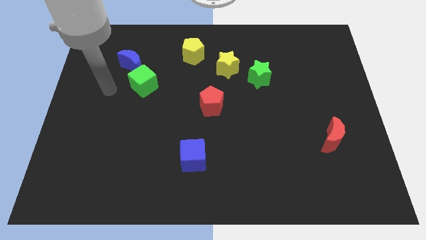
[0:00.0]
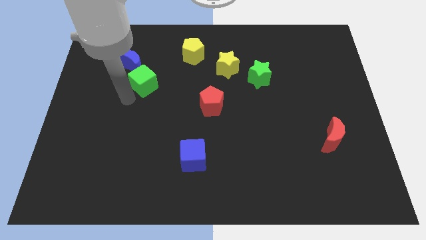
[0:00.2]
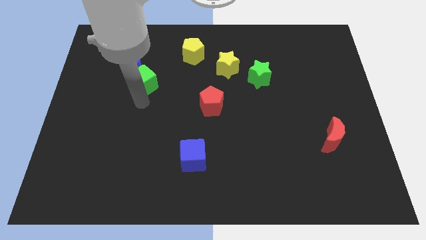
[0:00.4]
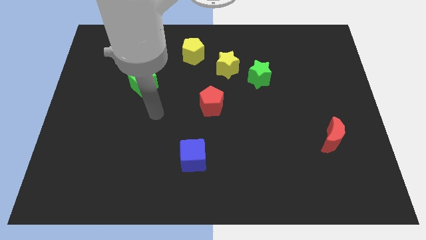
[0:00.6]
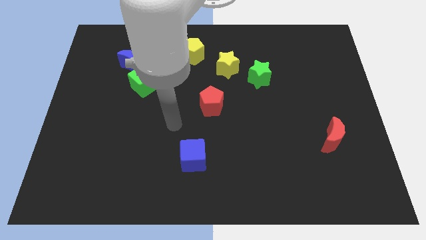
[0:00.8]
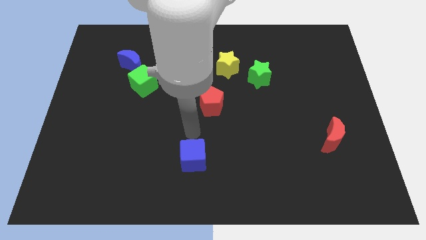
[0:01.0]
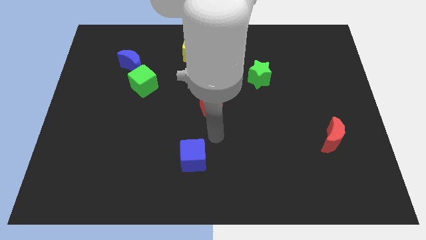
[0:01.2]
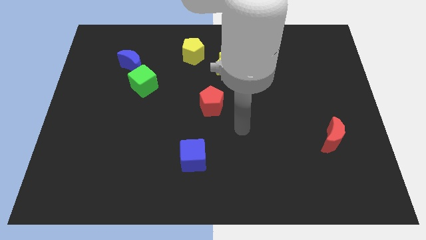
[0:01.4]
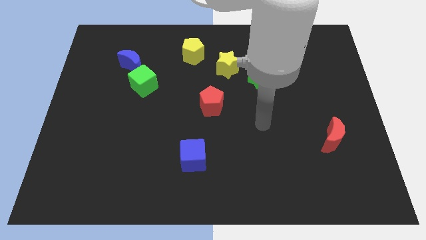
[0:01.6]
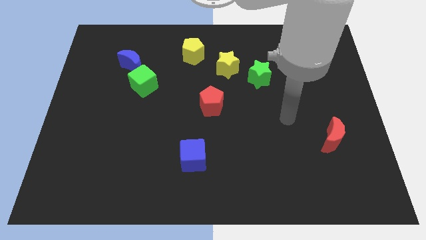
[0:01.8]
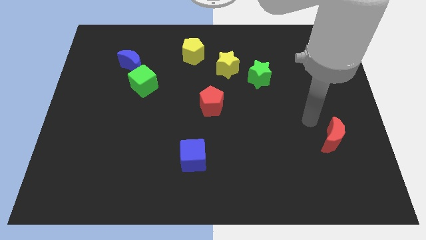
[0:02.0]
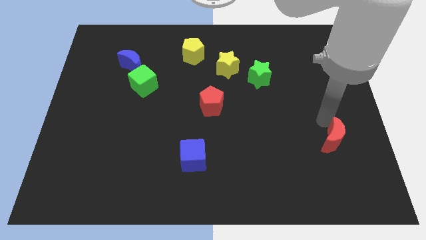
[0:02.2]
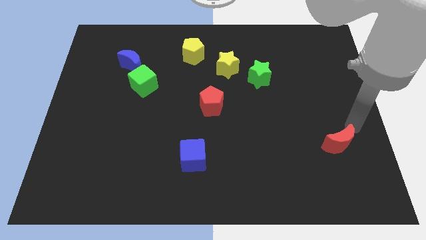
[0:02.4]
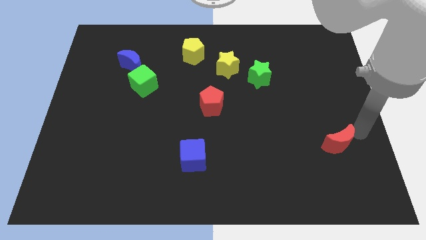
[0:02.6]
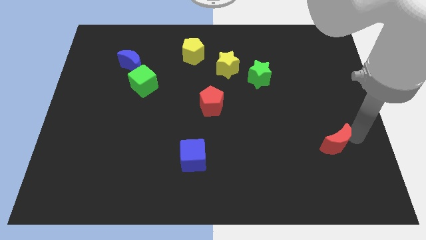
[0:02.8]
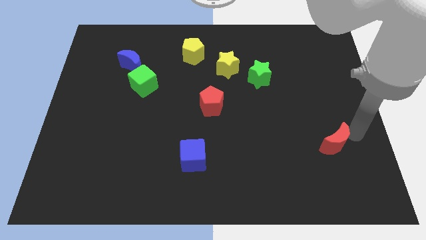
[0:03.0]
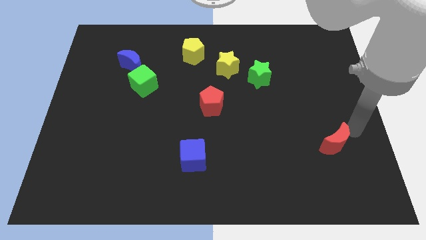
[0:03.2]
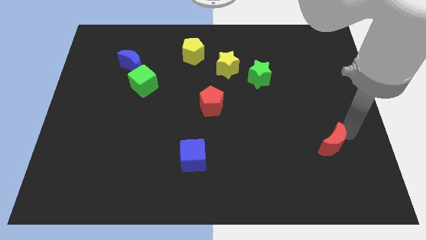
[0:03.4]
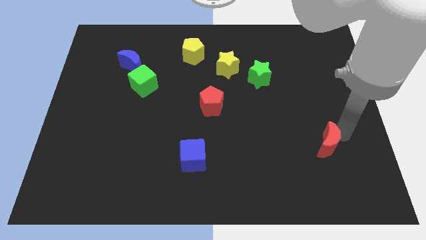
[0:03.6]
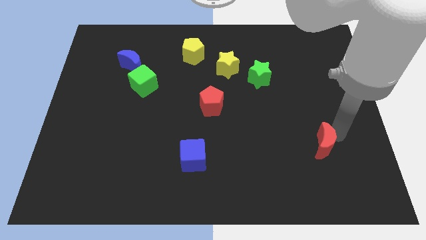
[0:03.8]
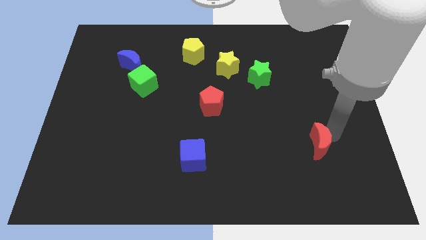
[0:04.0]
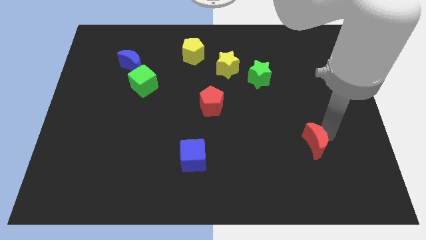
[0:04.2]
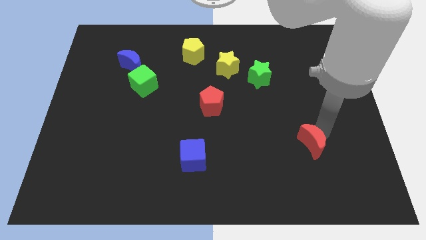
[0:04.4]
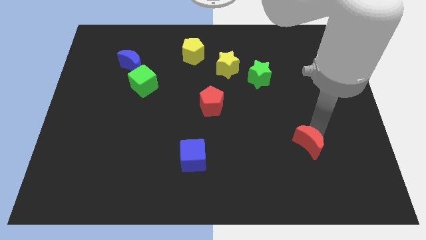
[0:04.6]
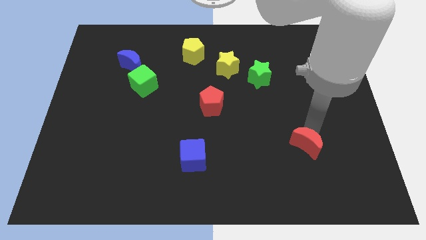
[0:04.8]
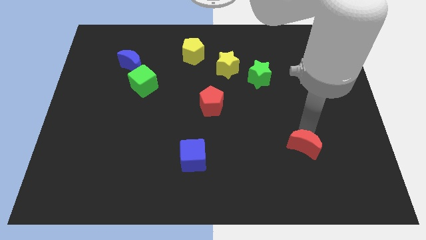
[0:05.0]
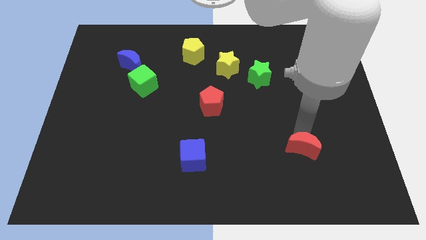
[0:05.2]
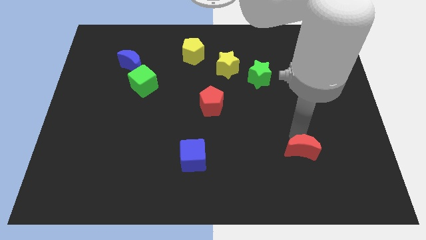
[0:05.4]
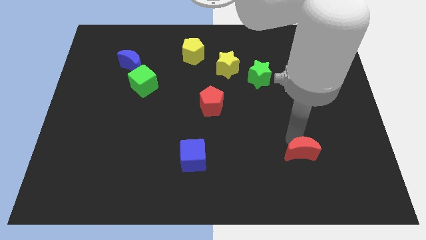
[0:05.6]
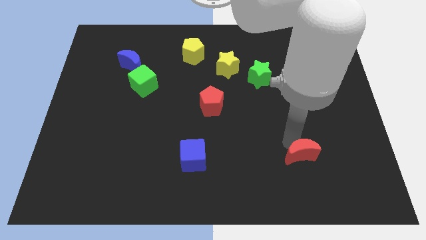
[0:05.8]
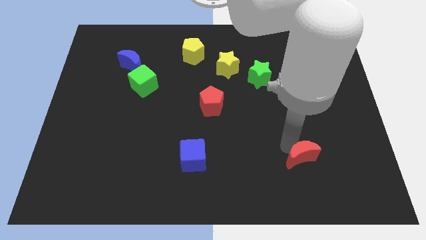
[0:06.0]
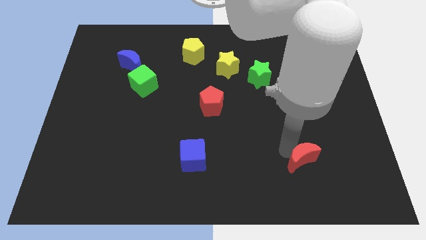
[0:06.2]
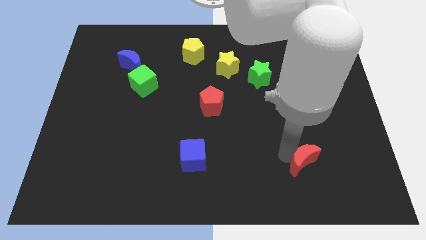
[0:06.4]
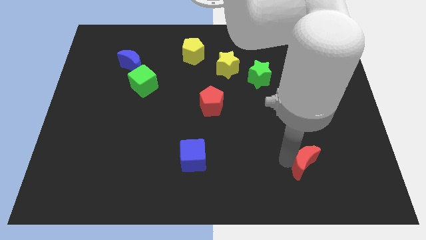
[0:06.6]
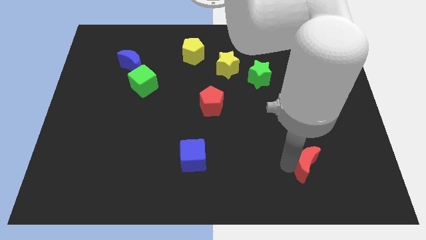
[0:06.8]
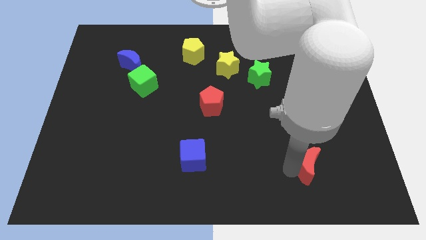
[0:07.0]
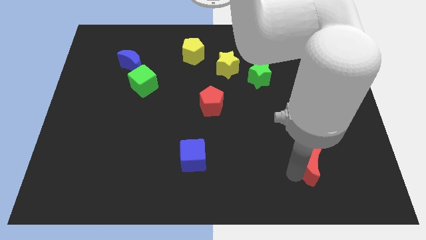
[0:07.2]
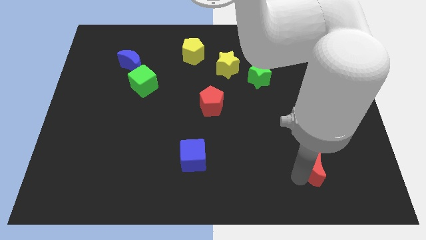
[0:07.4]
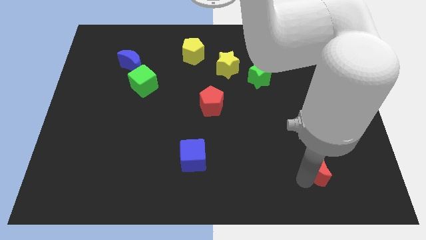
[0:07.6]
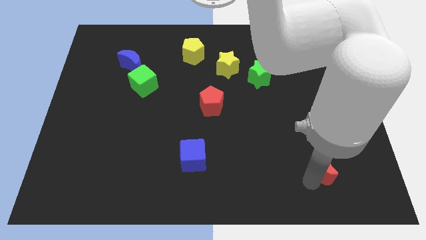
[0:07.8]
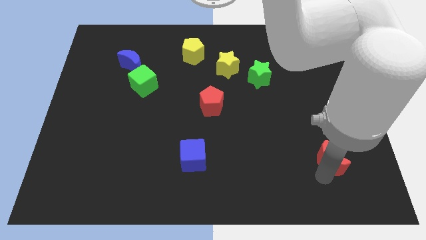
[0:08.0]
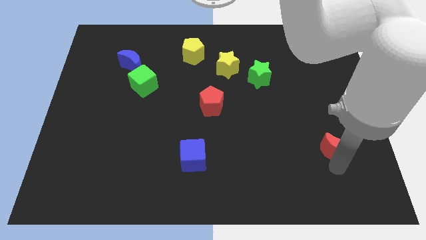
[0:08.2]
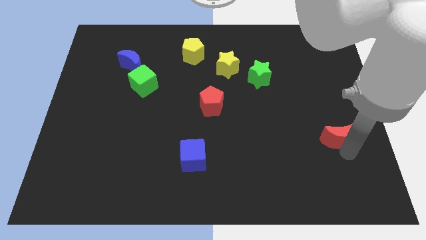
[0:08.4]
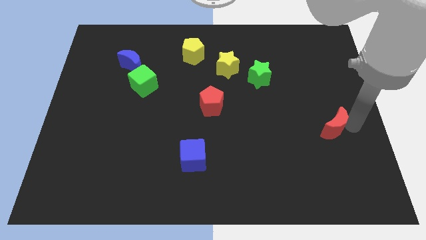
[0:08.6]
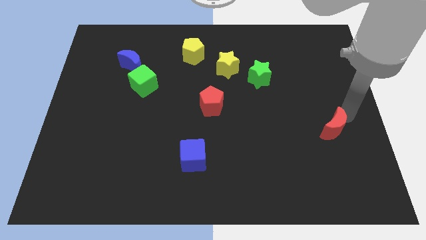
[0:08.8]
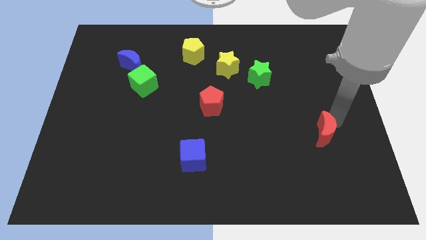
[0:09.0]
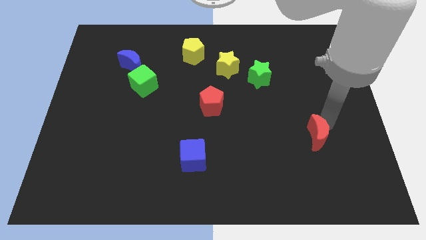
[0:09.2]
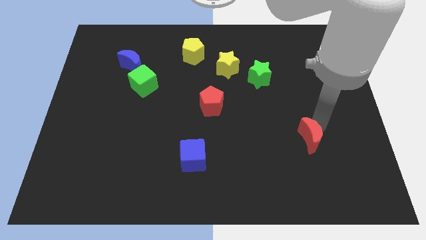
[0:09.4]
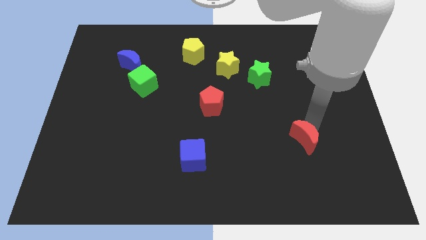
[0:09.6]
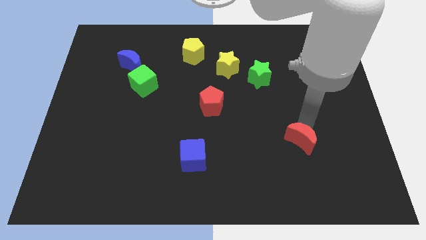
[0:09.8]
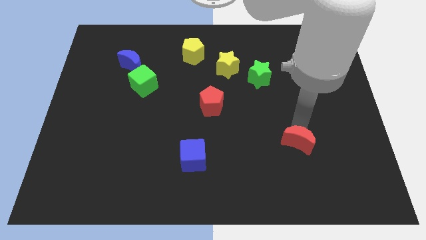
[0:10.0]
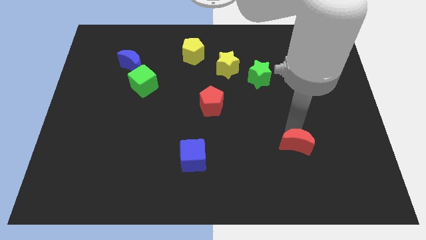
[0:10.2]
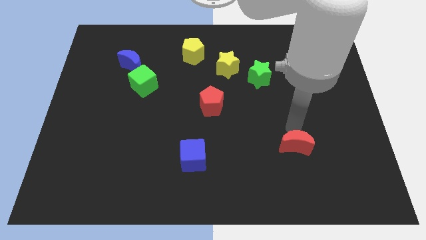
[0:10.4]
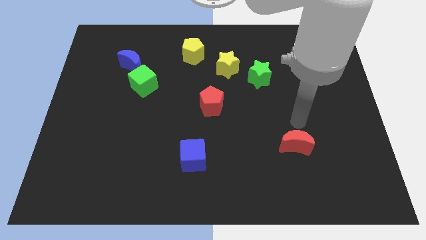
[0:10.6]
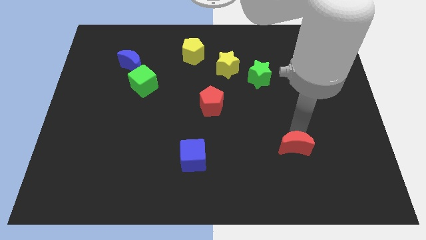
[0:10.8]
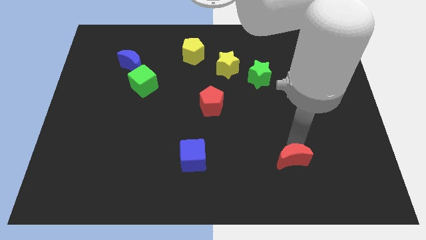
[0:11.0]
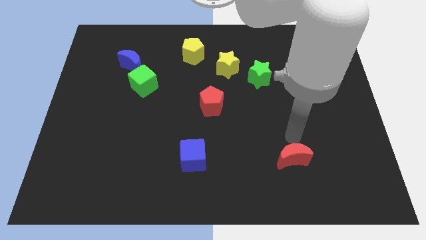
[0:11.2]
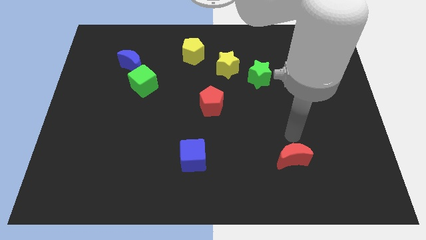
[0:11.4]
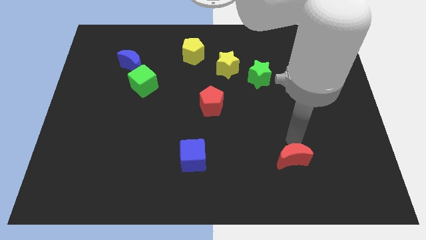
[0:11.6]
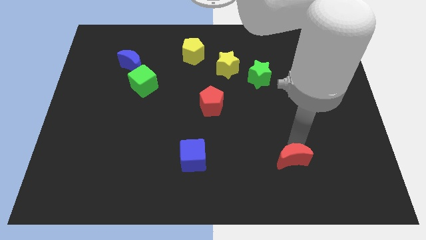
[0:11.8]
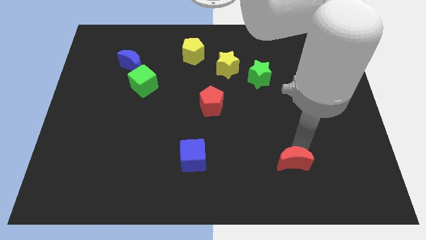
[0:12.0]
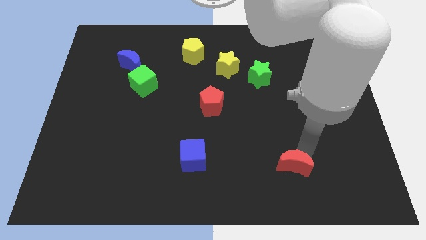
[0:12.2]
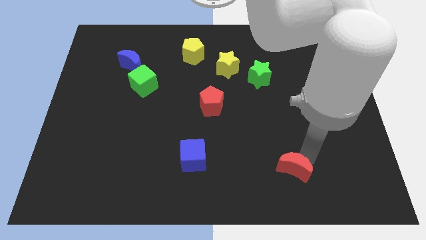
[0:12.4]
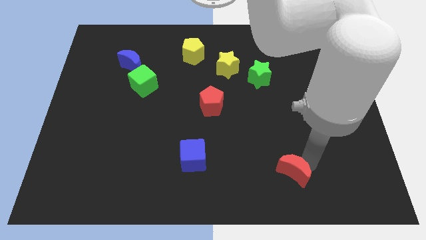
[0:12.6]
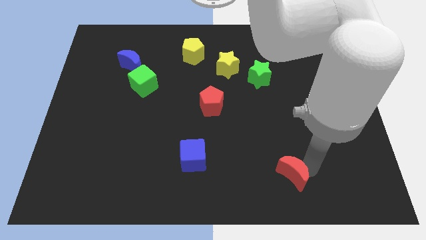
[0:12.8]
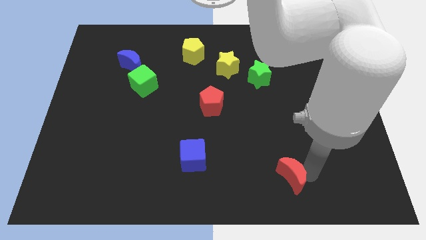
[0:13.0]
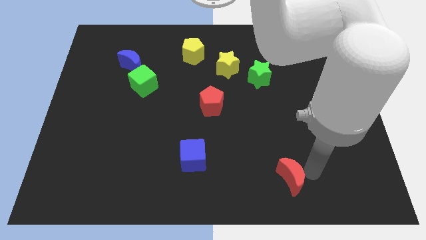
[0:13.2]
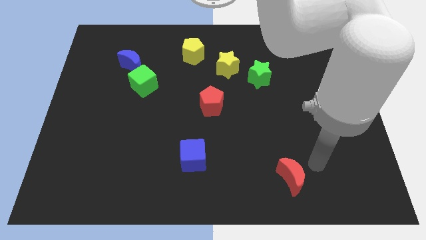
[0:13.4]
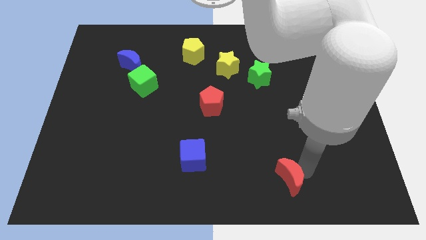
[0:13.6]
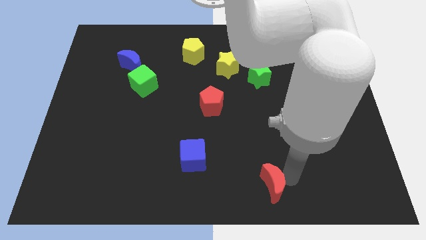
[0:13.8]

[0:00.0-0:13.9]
push the red moon to the bottom side
